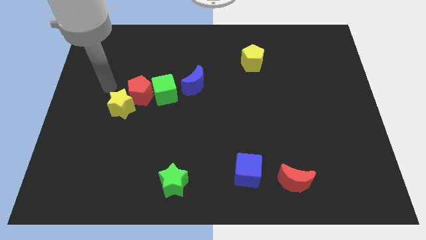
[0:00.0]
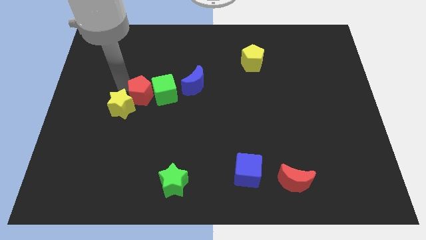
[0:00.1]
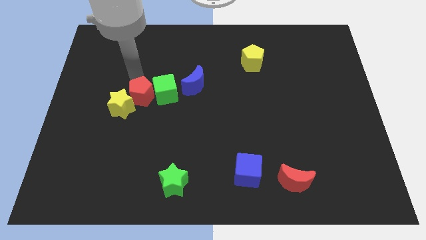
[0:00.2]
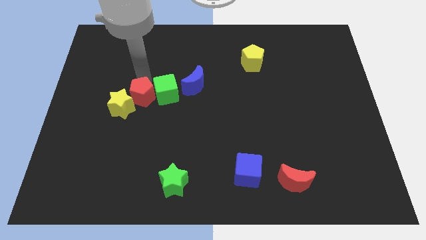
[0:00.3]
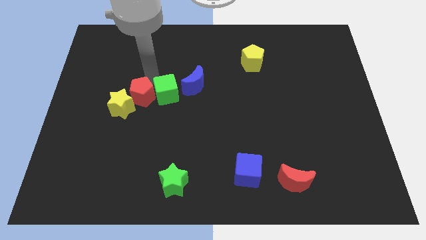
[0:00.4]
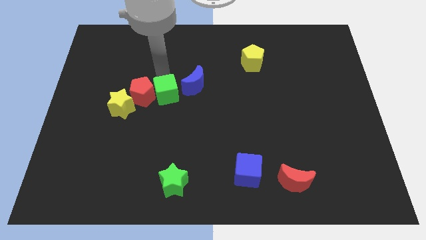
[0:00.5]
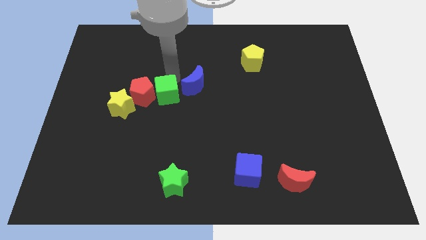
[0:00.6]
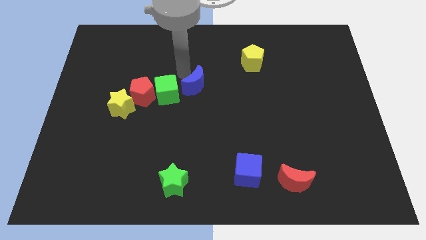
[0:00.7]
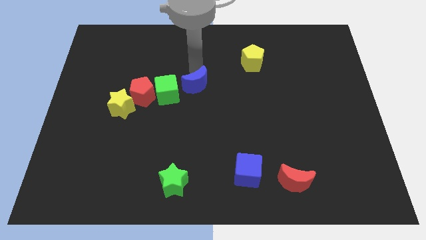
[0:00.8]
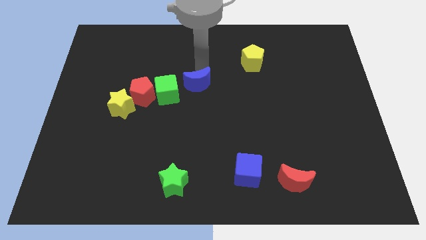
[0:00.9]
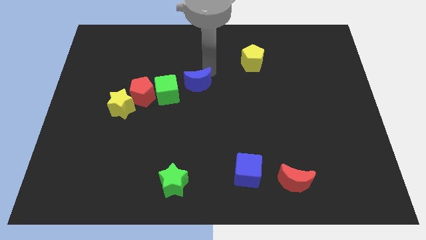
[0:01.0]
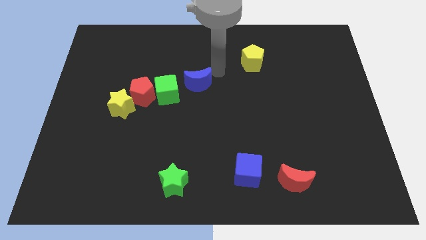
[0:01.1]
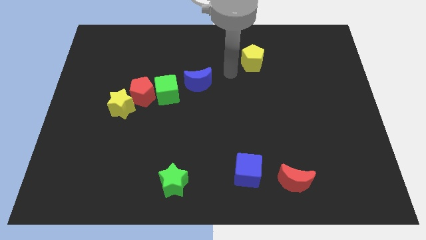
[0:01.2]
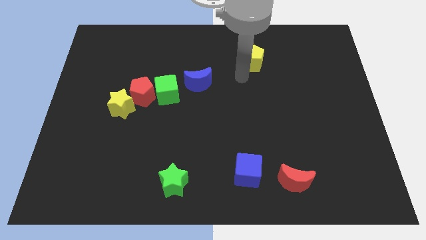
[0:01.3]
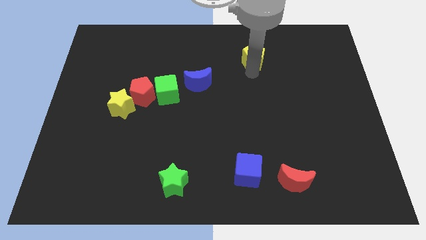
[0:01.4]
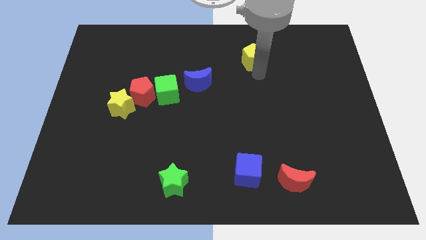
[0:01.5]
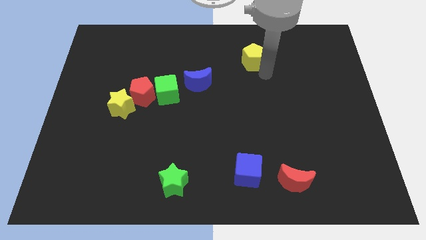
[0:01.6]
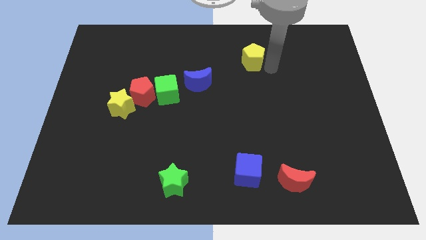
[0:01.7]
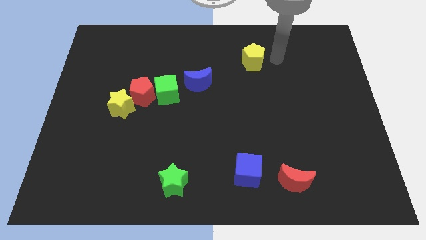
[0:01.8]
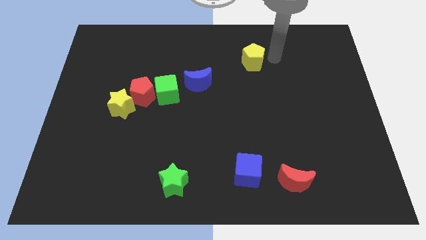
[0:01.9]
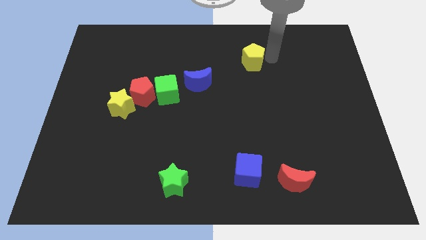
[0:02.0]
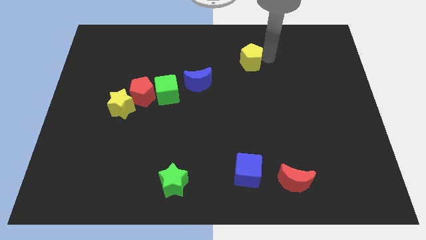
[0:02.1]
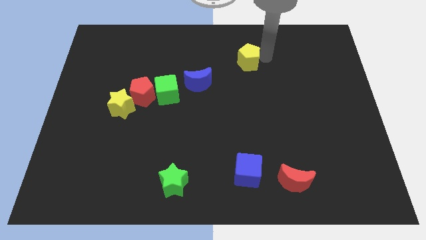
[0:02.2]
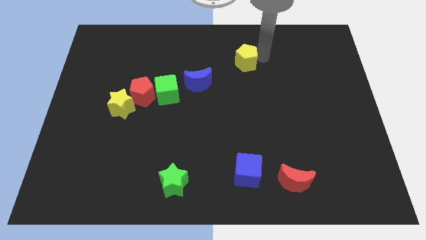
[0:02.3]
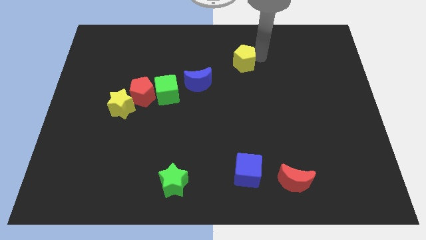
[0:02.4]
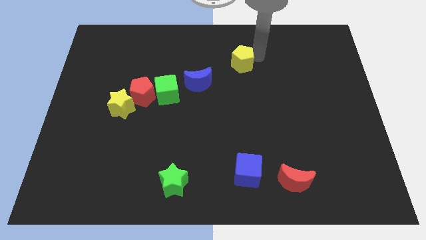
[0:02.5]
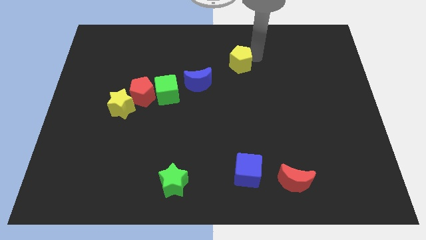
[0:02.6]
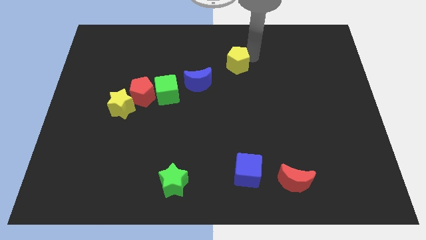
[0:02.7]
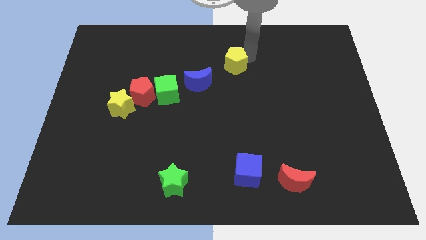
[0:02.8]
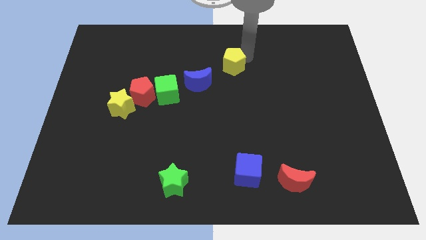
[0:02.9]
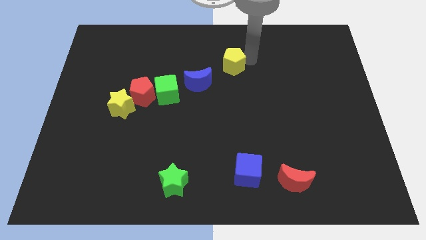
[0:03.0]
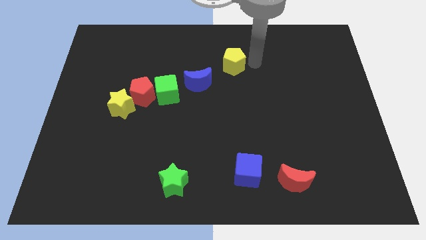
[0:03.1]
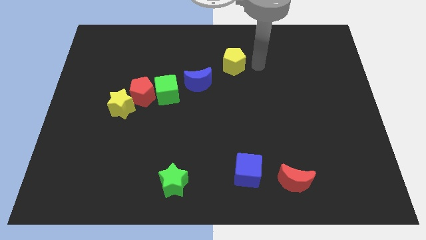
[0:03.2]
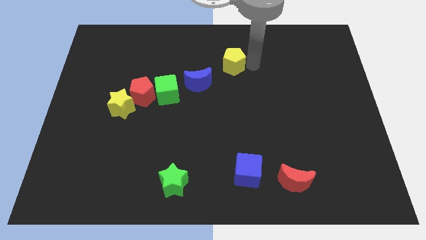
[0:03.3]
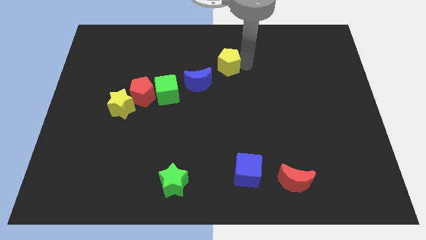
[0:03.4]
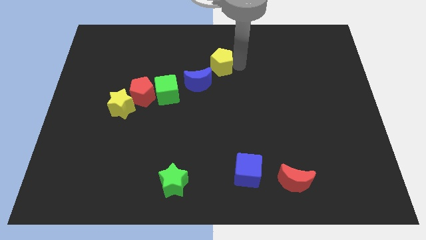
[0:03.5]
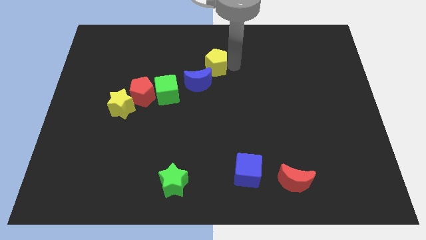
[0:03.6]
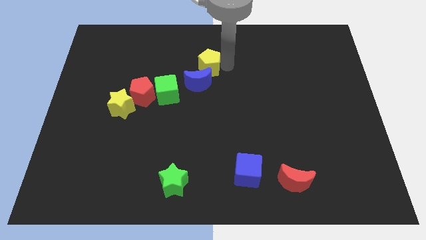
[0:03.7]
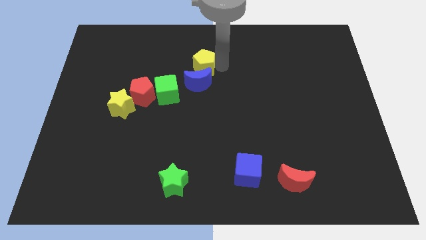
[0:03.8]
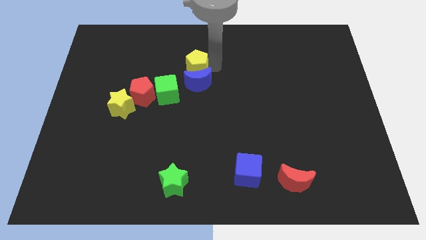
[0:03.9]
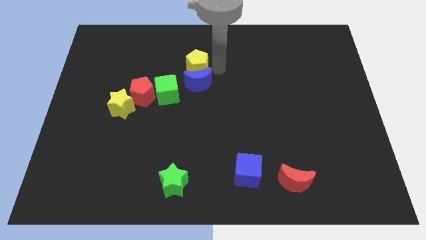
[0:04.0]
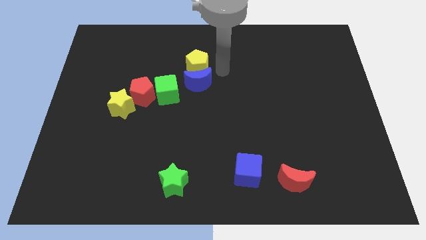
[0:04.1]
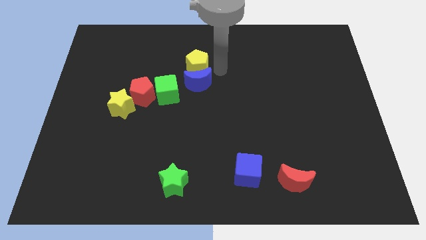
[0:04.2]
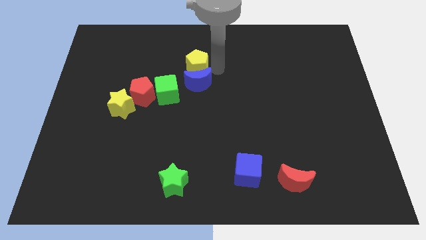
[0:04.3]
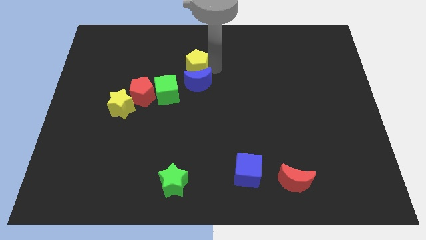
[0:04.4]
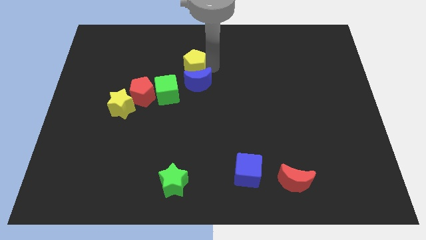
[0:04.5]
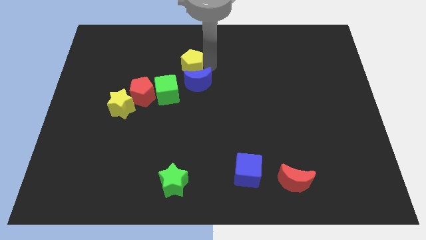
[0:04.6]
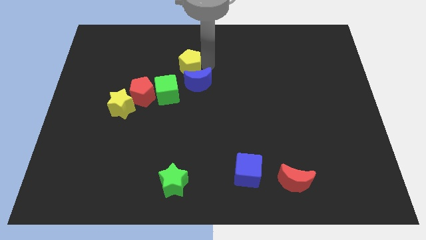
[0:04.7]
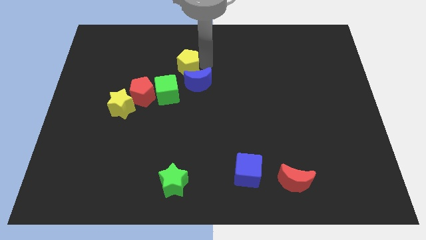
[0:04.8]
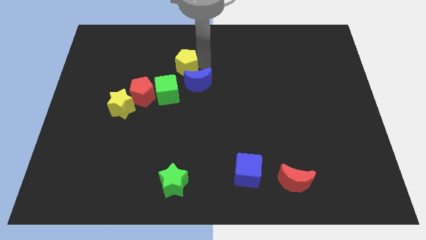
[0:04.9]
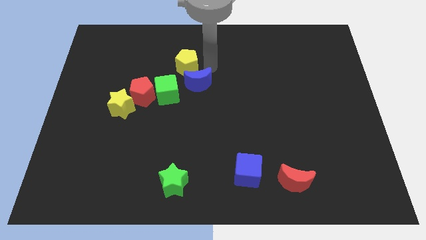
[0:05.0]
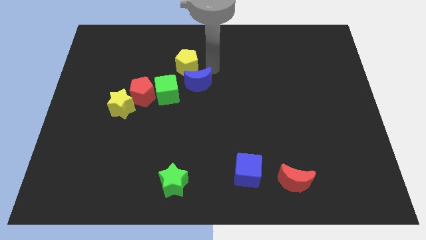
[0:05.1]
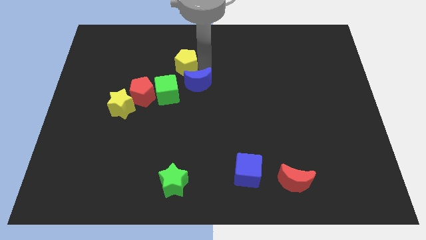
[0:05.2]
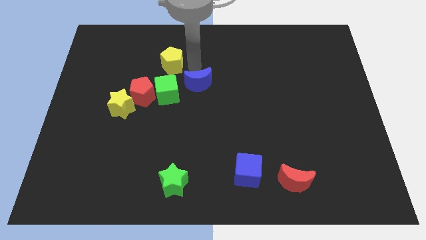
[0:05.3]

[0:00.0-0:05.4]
move the yellow pentagon to the left

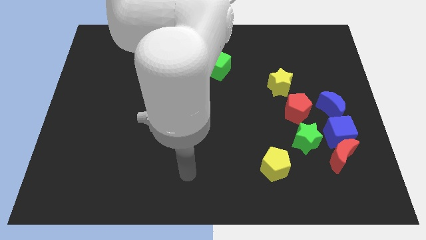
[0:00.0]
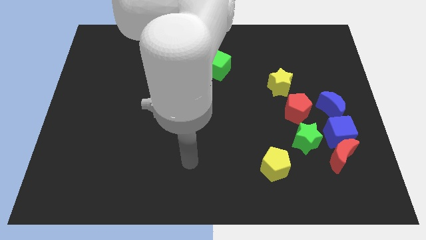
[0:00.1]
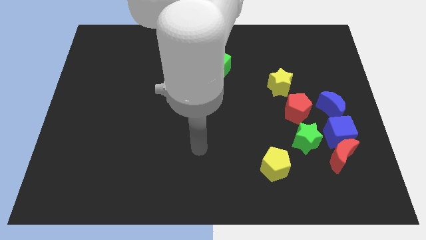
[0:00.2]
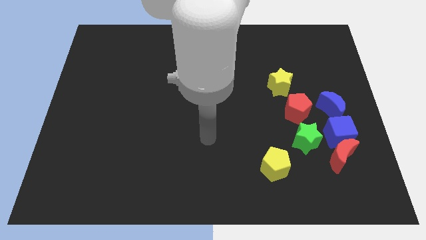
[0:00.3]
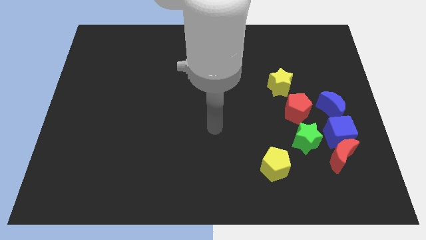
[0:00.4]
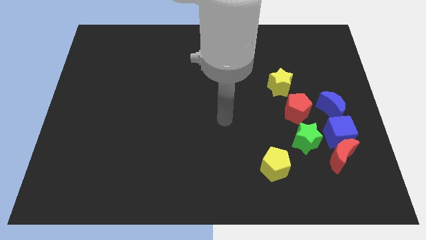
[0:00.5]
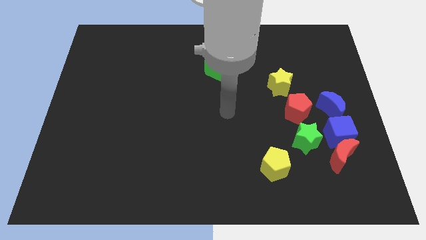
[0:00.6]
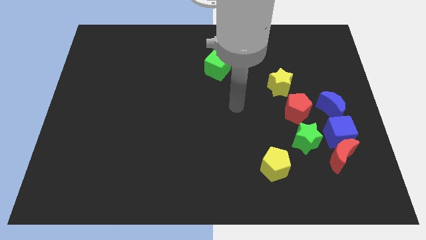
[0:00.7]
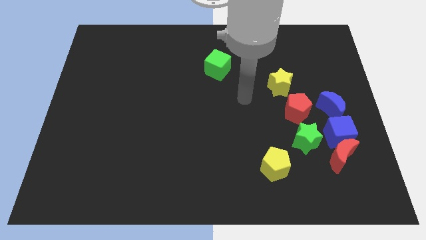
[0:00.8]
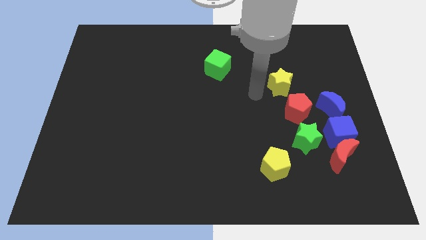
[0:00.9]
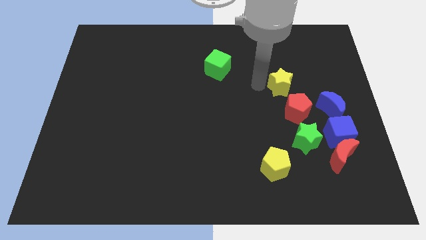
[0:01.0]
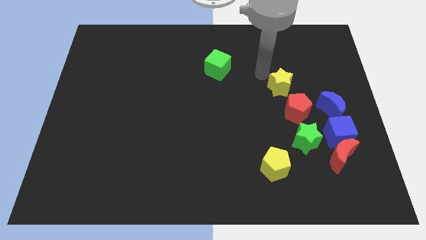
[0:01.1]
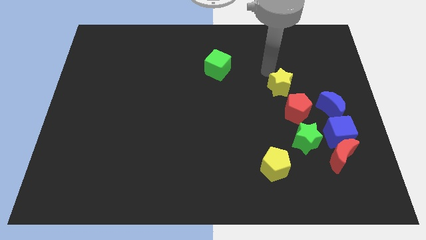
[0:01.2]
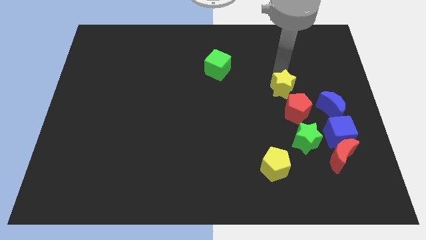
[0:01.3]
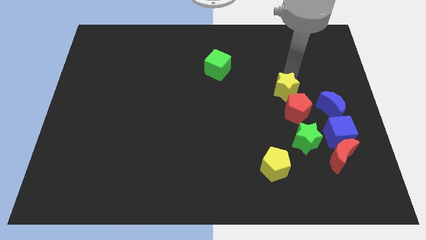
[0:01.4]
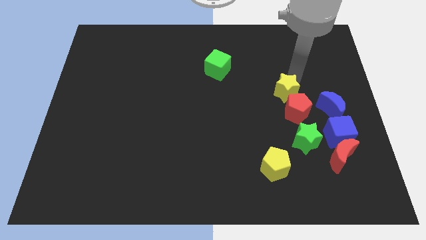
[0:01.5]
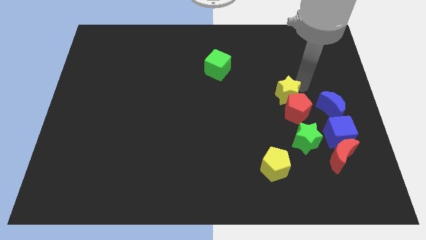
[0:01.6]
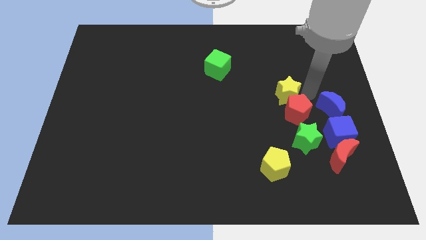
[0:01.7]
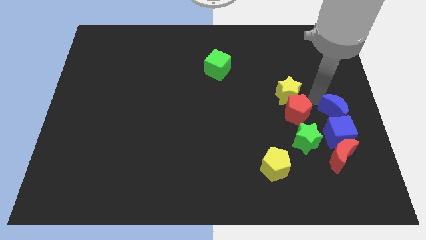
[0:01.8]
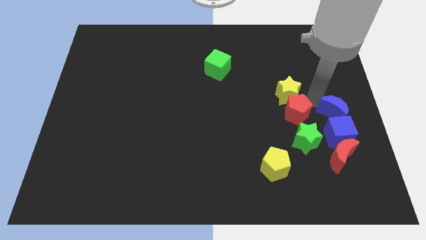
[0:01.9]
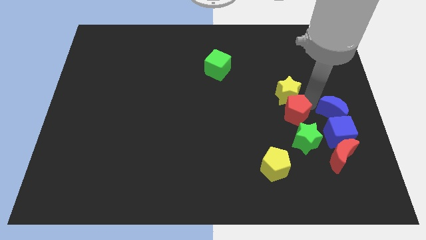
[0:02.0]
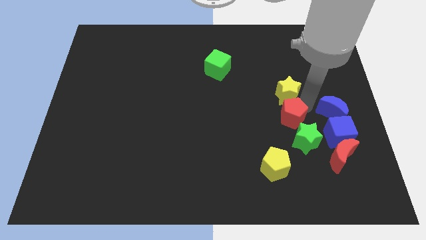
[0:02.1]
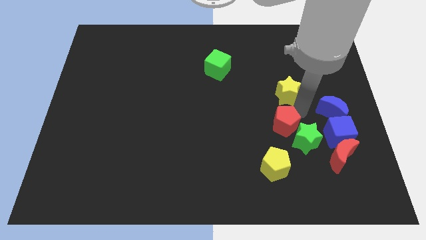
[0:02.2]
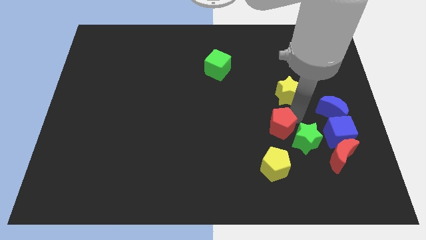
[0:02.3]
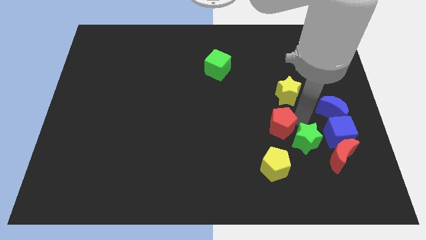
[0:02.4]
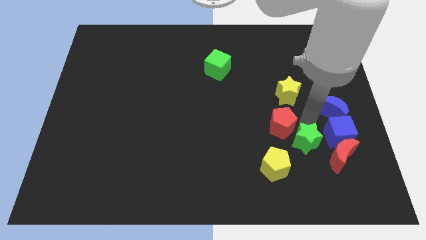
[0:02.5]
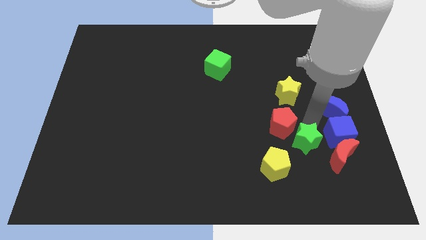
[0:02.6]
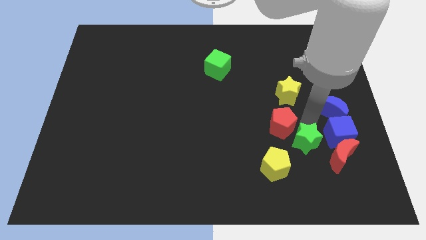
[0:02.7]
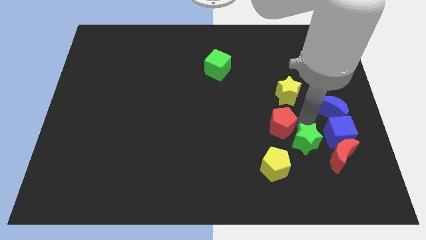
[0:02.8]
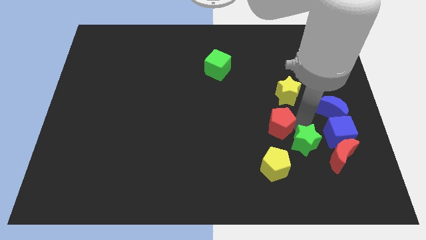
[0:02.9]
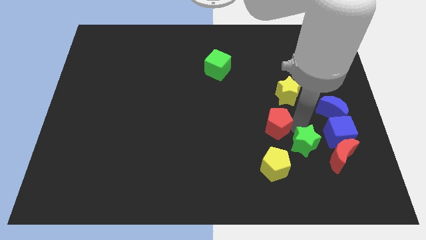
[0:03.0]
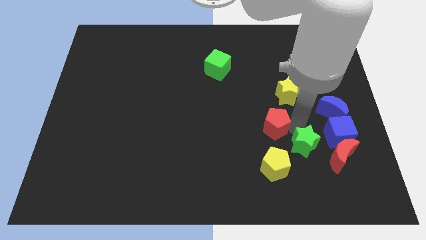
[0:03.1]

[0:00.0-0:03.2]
move the red pentagon down and to the left slightly
